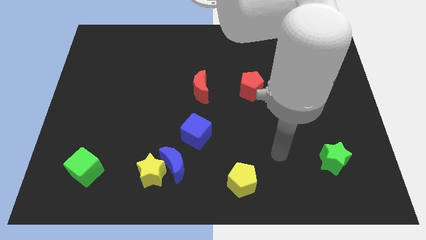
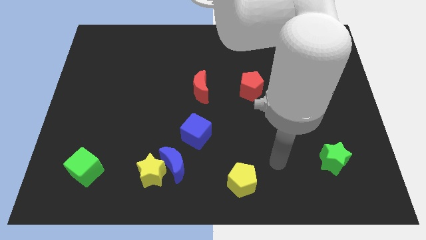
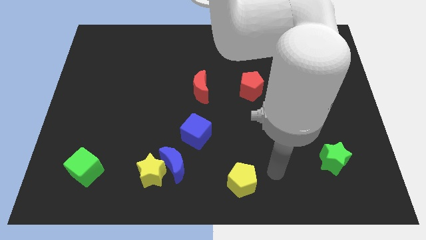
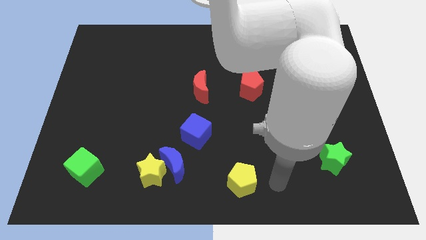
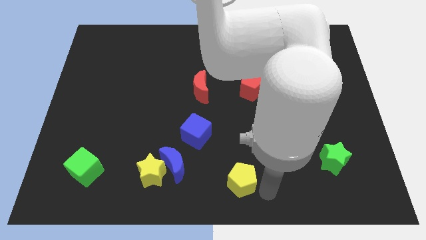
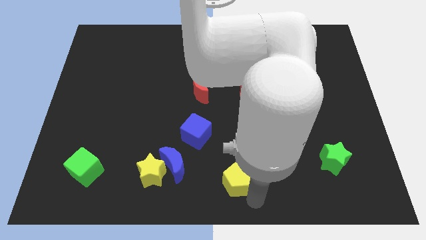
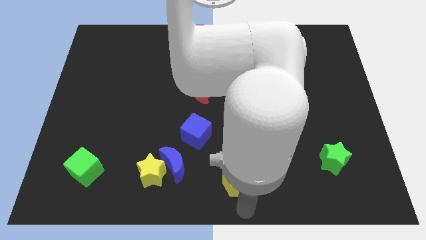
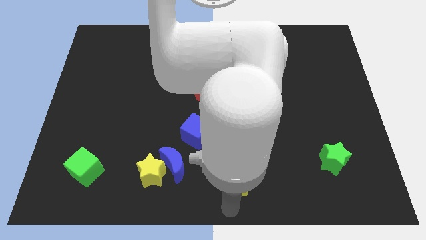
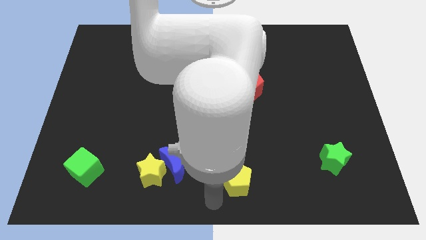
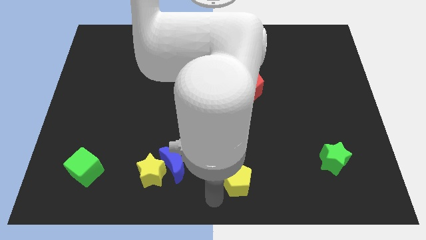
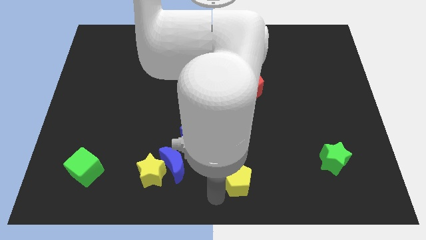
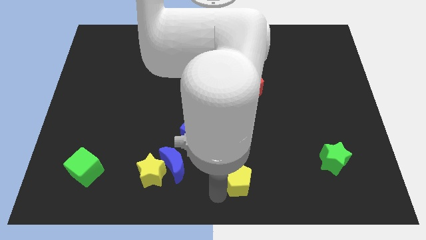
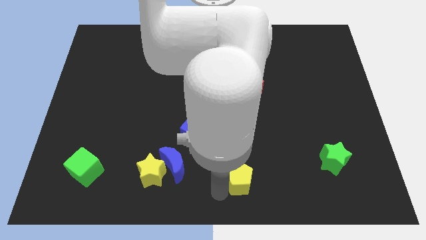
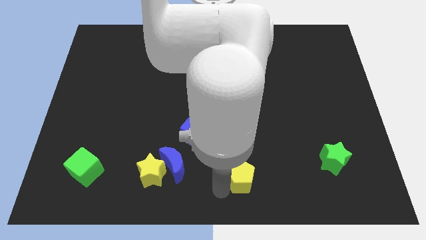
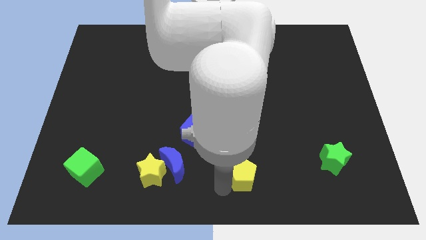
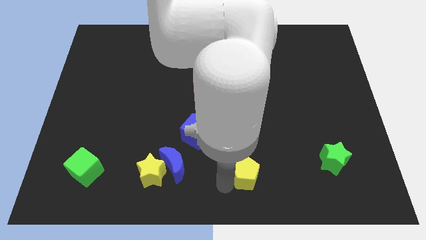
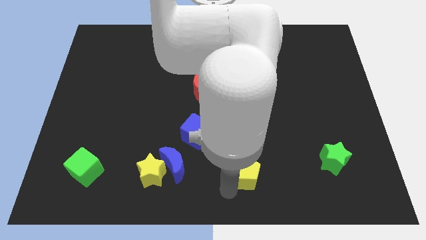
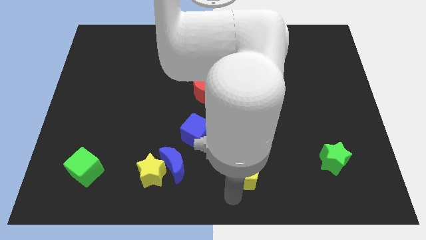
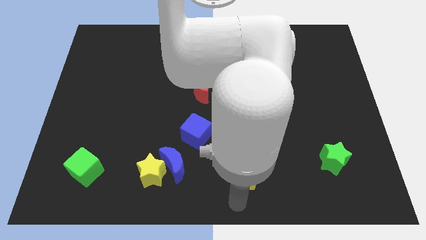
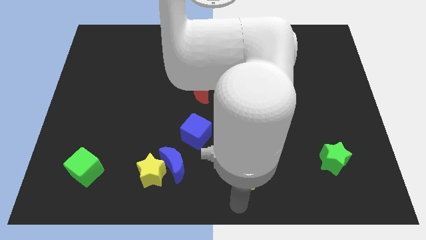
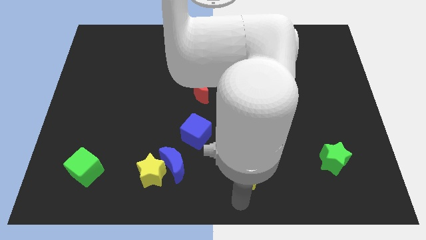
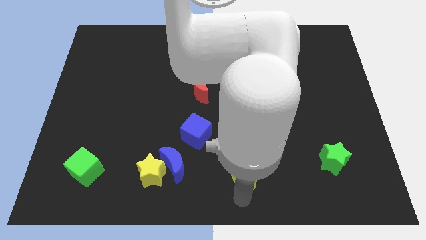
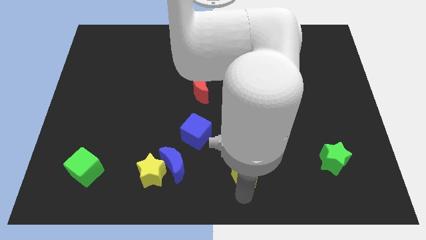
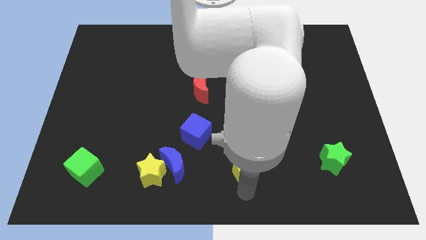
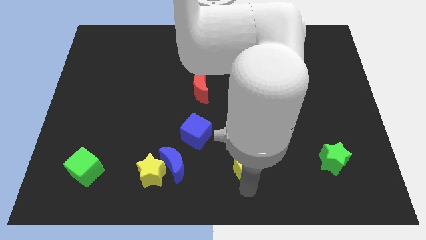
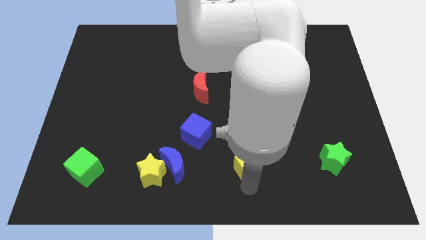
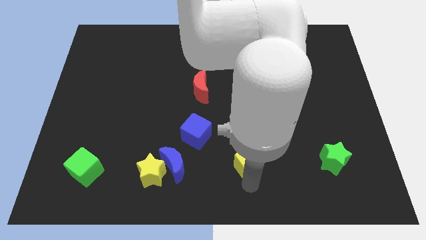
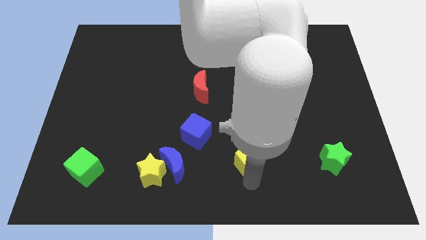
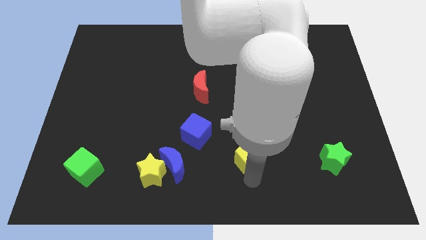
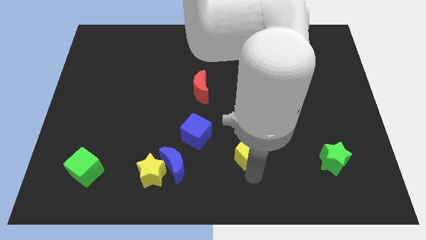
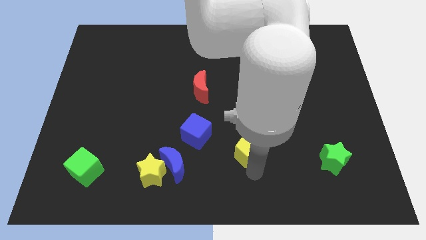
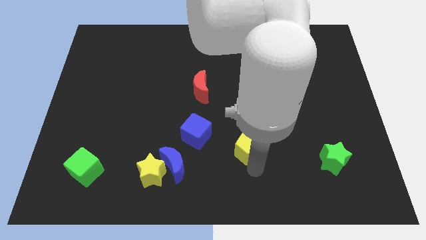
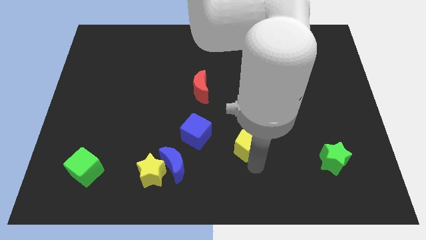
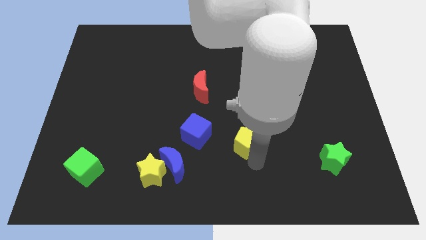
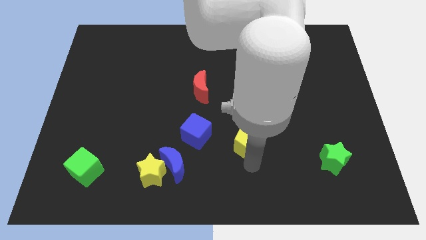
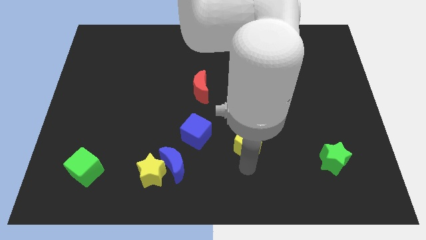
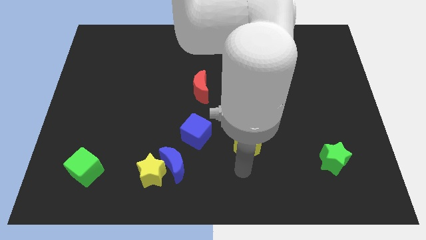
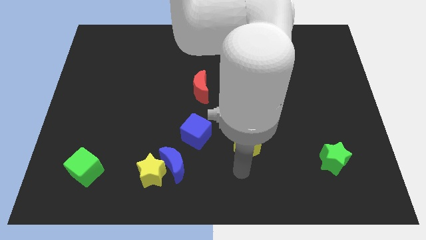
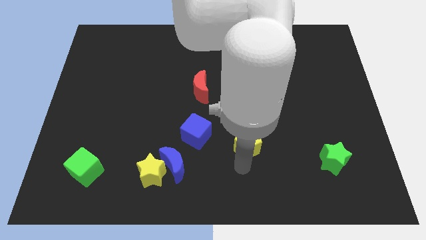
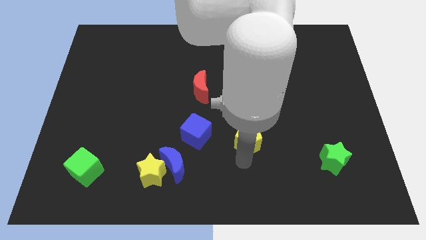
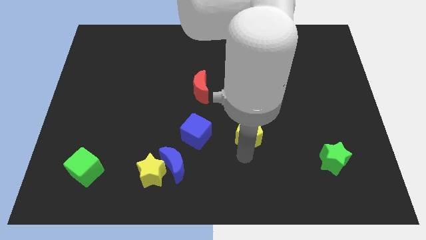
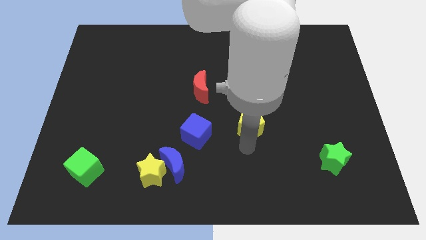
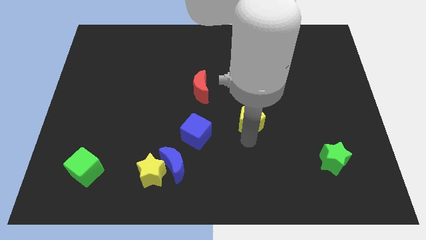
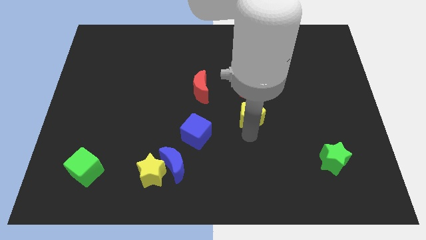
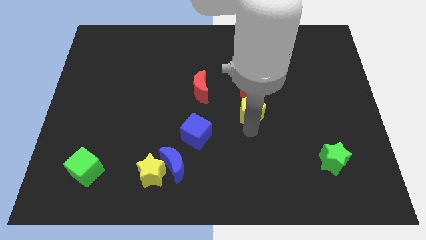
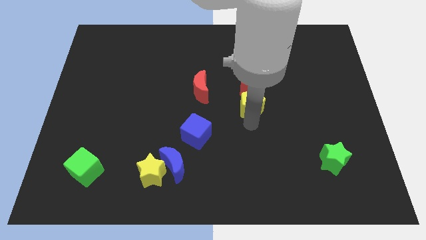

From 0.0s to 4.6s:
push the yellow pentagon close to the red pentagon

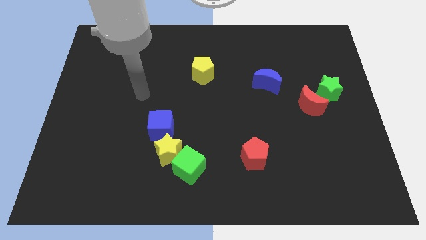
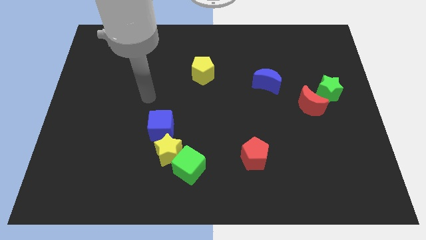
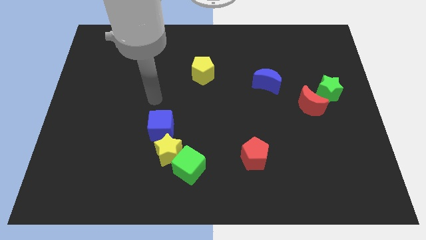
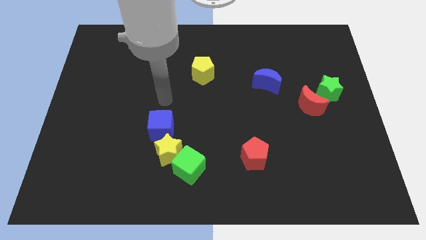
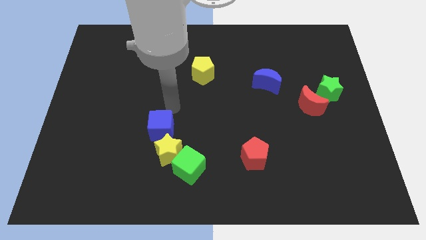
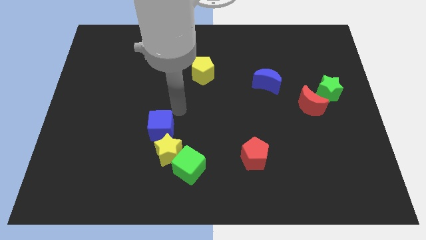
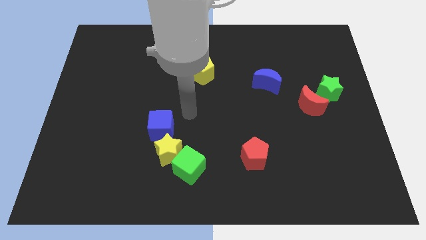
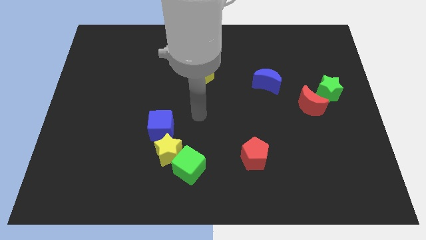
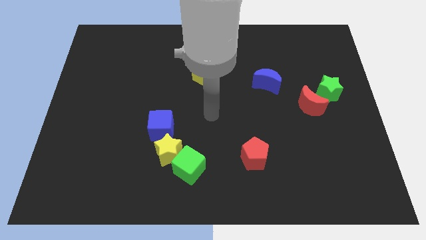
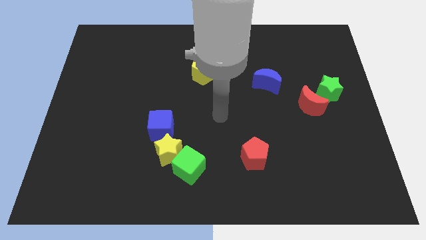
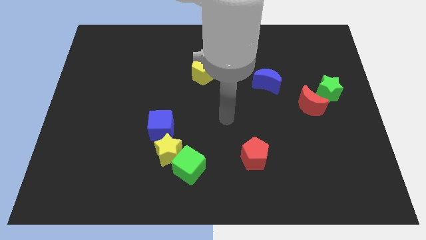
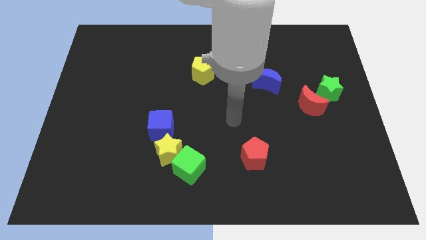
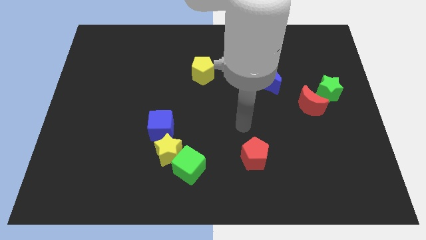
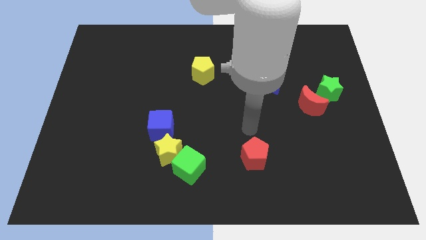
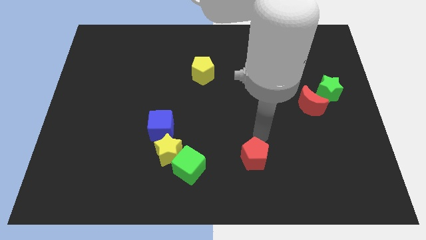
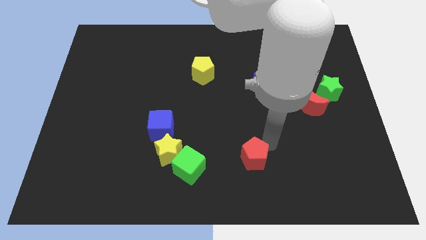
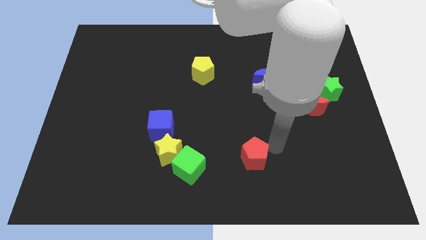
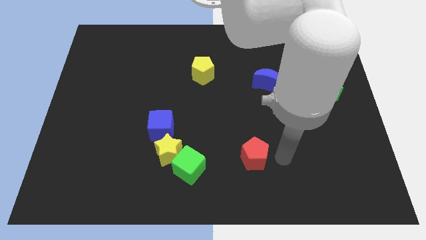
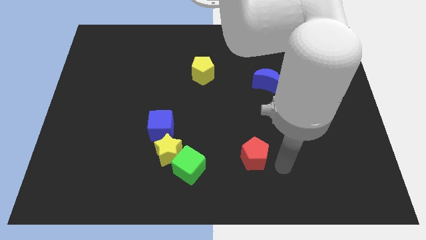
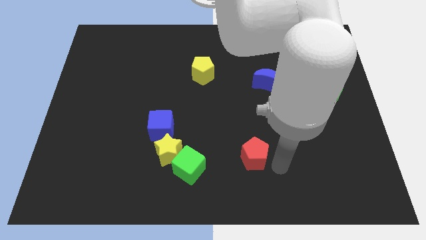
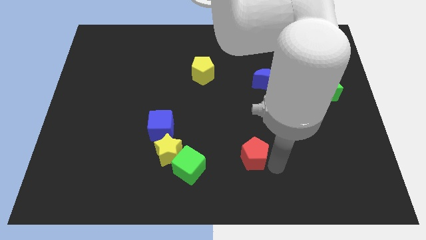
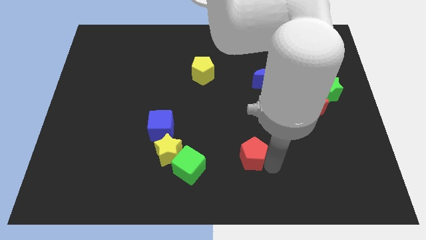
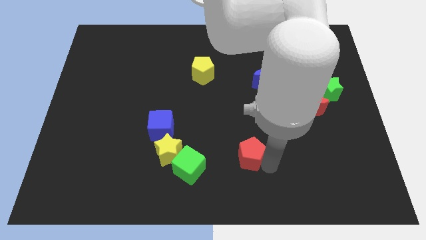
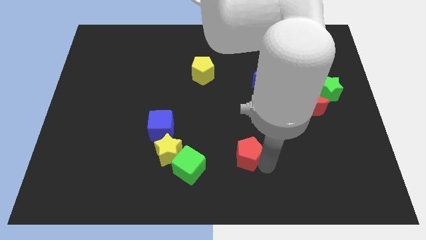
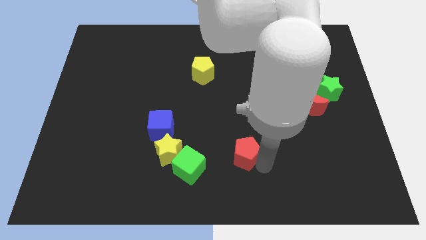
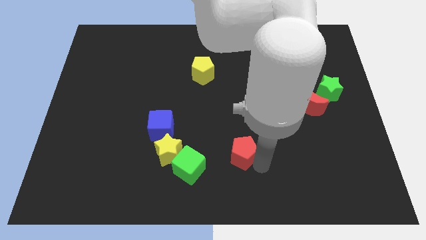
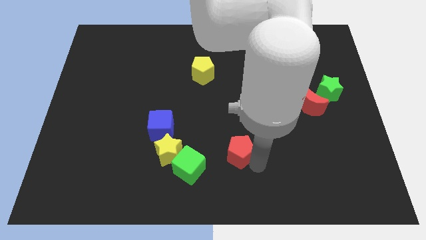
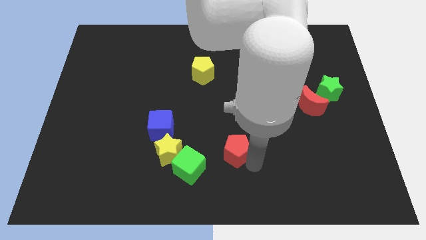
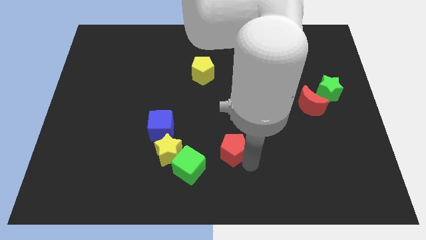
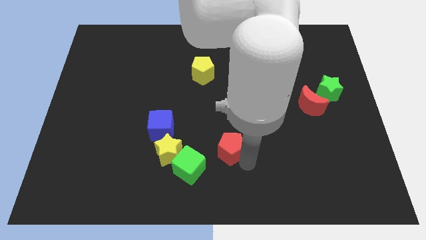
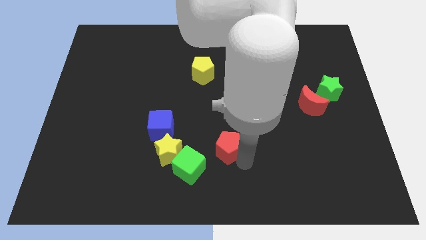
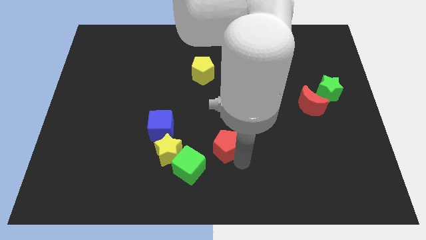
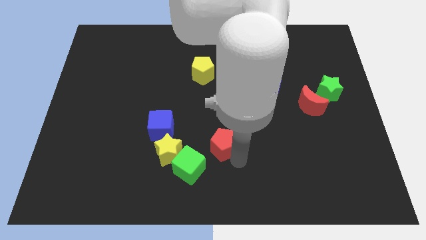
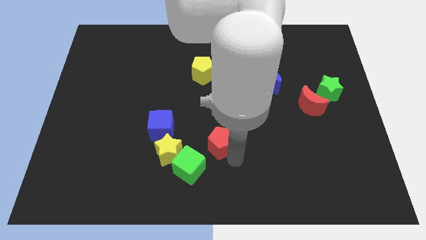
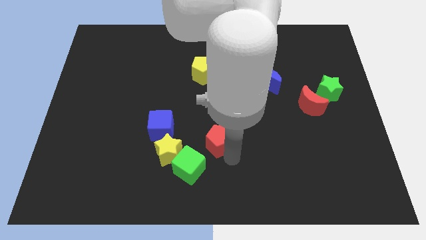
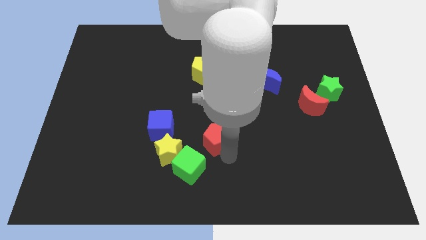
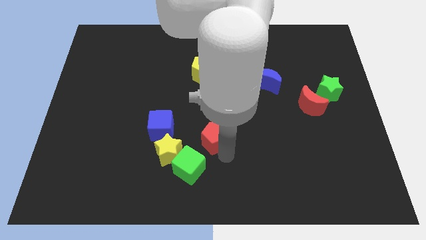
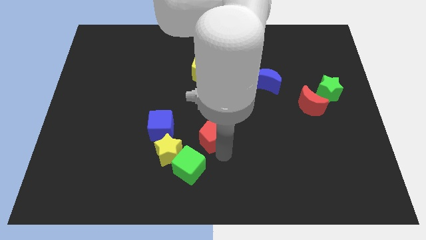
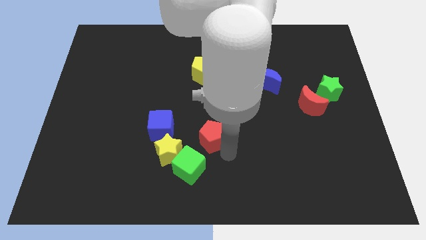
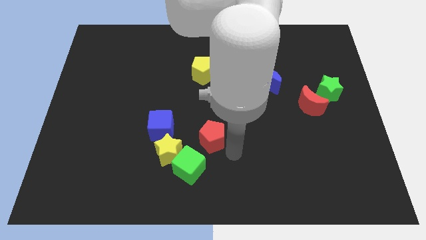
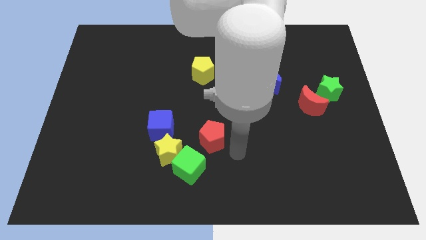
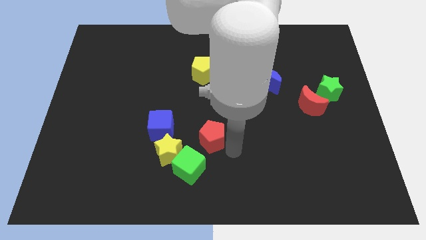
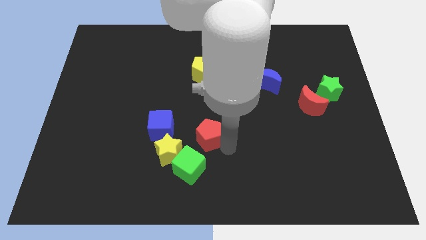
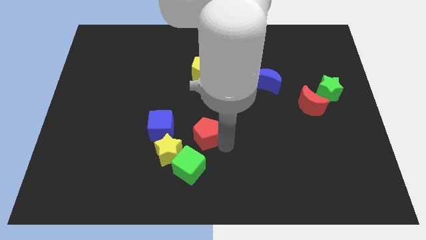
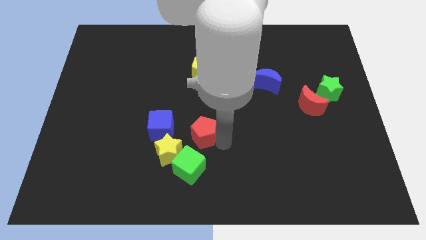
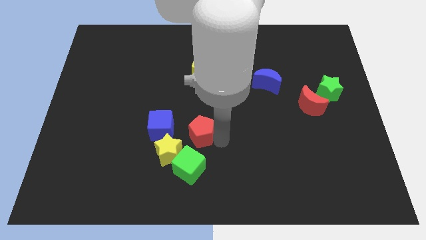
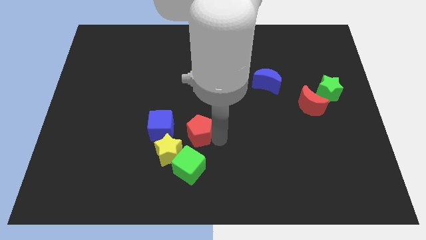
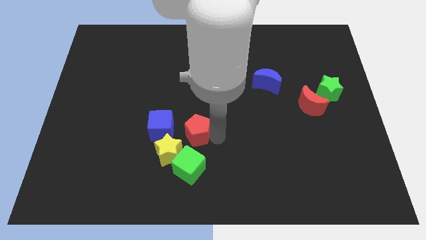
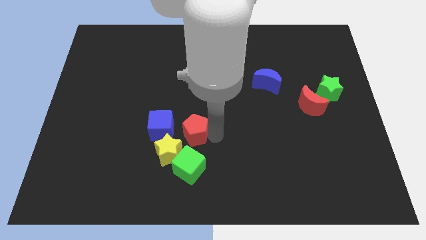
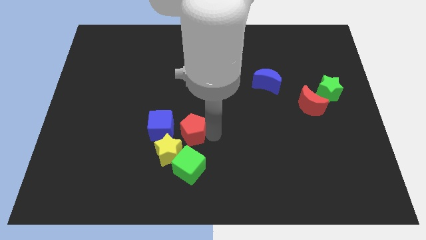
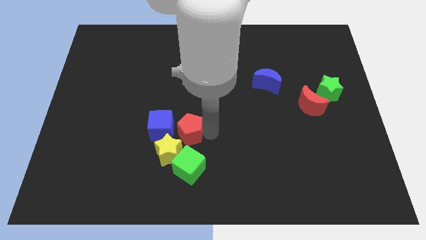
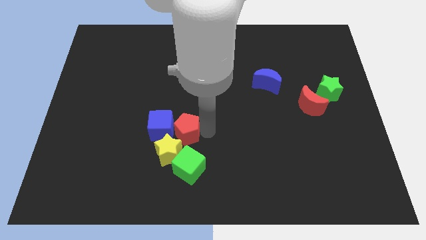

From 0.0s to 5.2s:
push the red pentagon close to the blue cube
